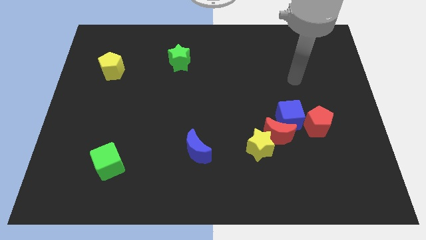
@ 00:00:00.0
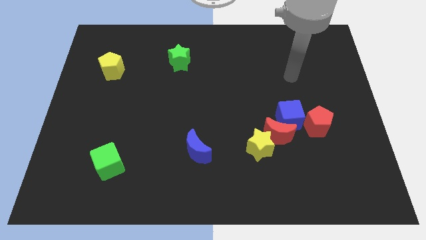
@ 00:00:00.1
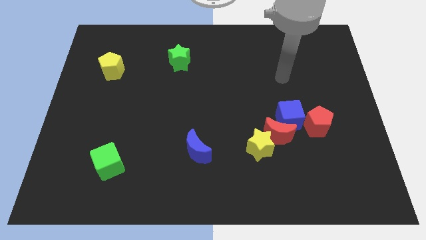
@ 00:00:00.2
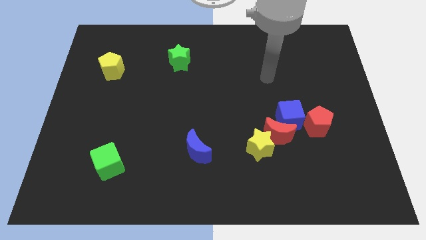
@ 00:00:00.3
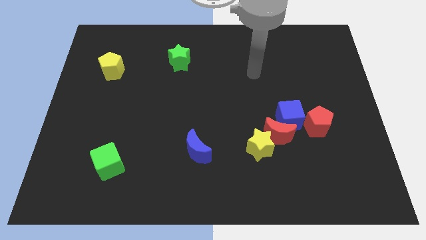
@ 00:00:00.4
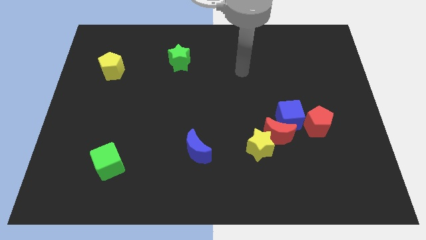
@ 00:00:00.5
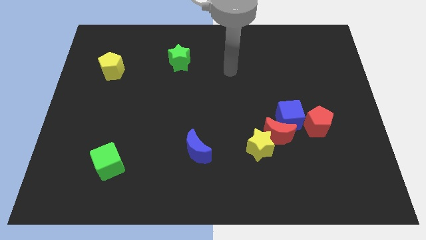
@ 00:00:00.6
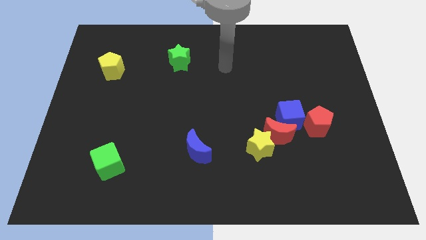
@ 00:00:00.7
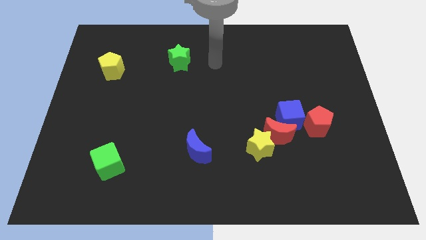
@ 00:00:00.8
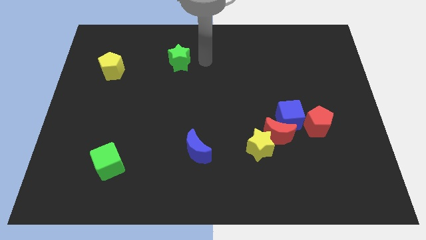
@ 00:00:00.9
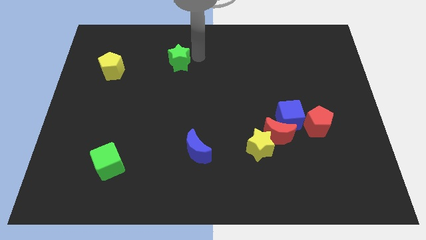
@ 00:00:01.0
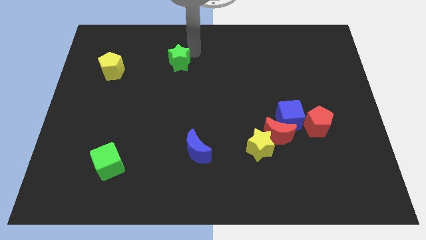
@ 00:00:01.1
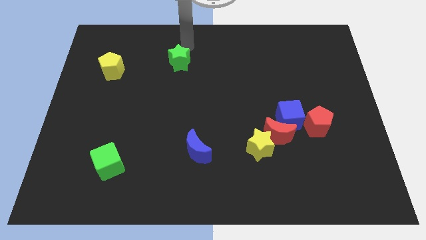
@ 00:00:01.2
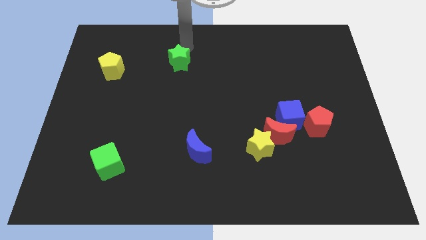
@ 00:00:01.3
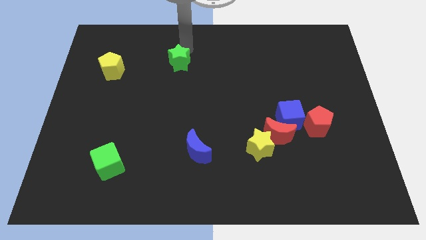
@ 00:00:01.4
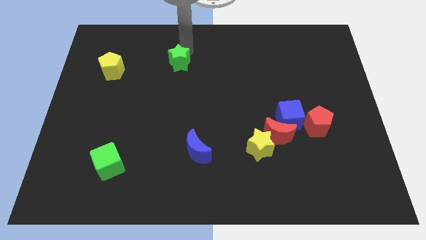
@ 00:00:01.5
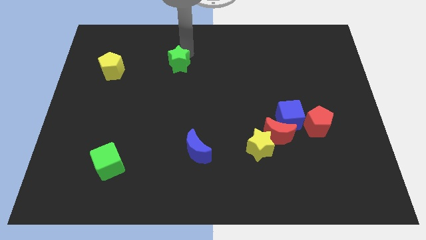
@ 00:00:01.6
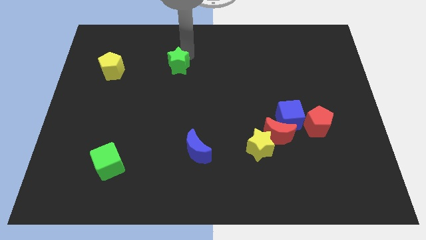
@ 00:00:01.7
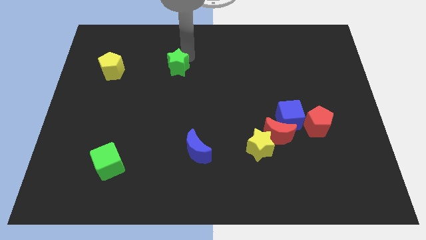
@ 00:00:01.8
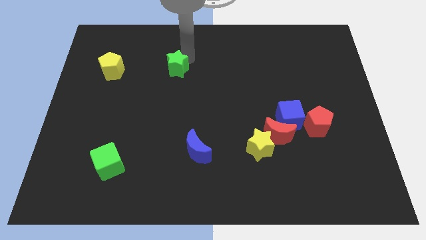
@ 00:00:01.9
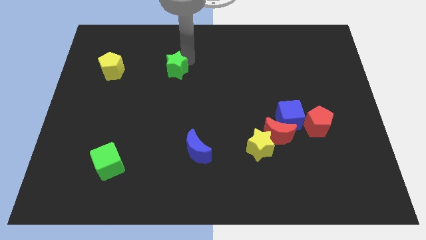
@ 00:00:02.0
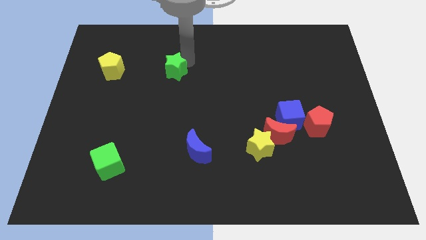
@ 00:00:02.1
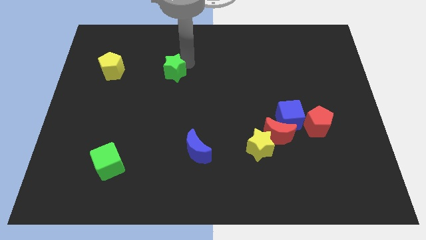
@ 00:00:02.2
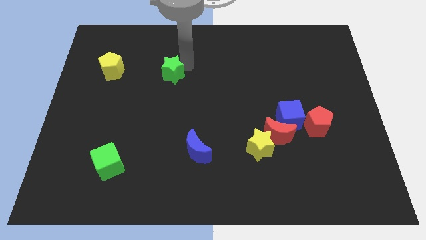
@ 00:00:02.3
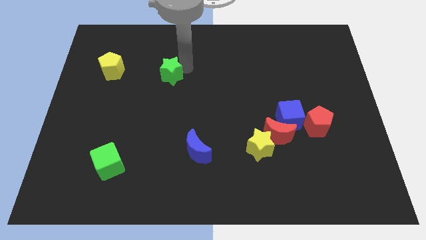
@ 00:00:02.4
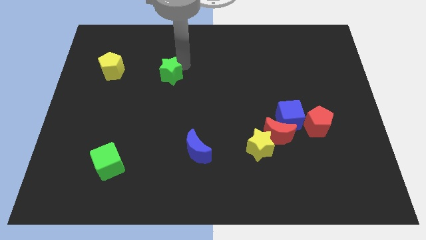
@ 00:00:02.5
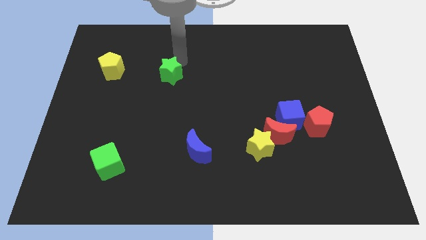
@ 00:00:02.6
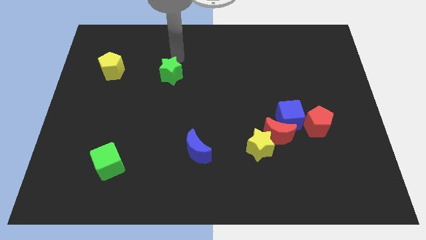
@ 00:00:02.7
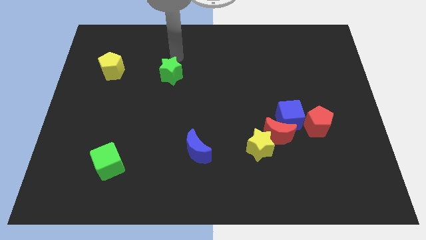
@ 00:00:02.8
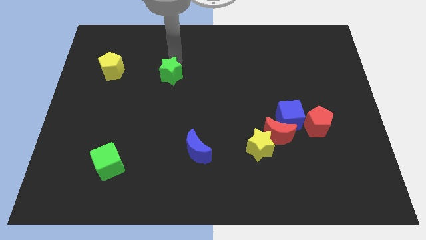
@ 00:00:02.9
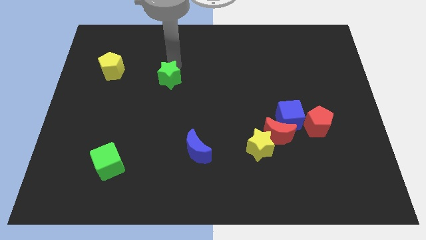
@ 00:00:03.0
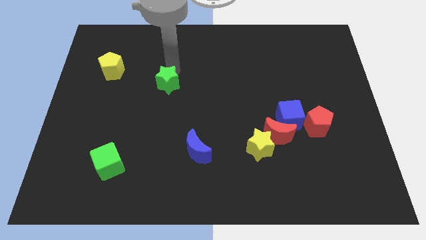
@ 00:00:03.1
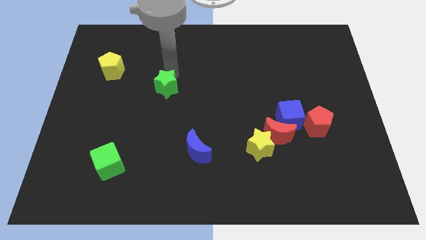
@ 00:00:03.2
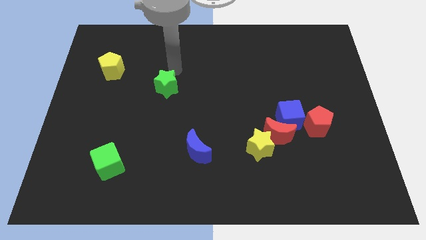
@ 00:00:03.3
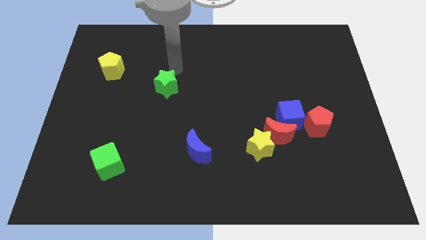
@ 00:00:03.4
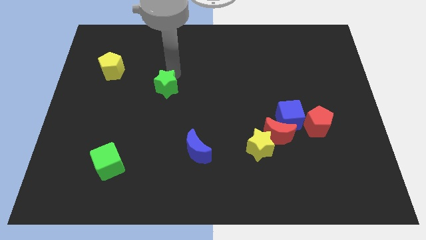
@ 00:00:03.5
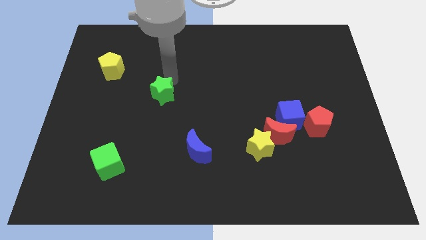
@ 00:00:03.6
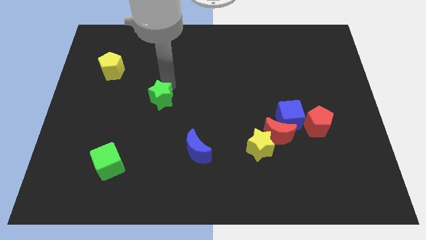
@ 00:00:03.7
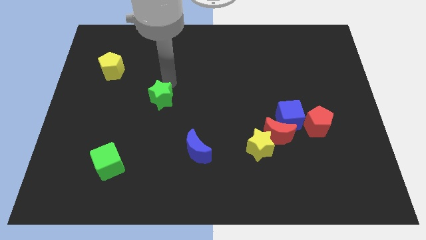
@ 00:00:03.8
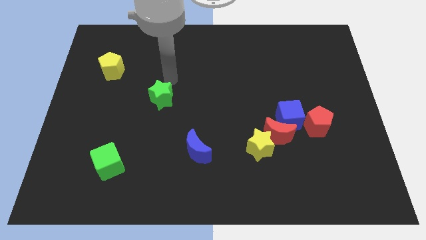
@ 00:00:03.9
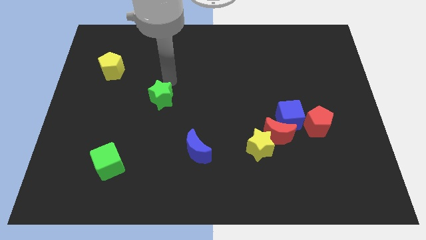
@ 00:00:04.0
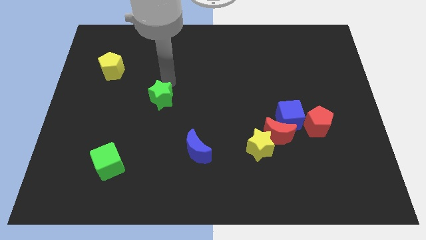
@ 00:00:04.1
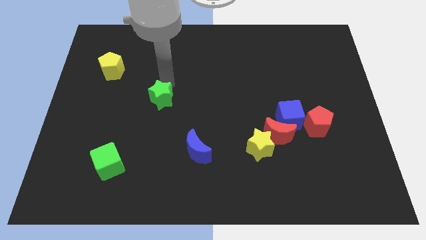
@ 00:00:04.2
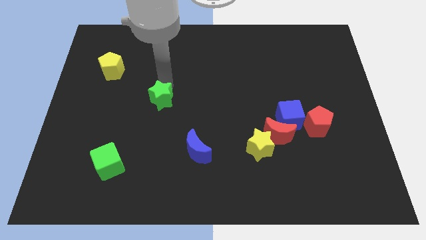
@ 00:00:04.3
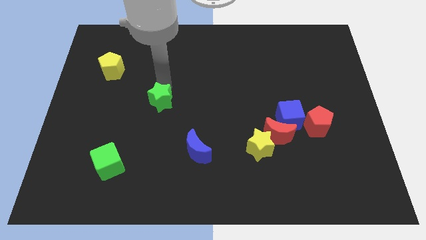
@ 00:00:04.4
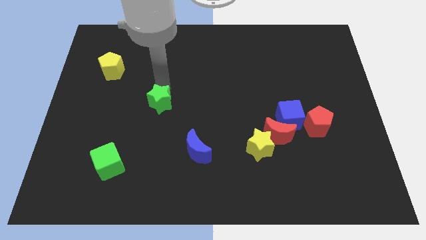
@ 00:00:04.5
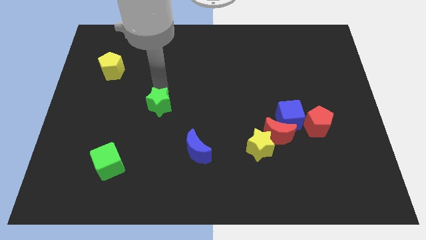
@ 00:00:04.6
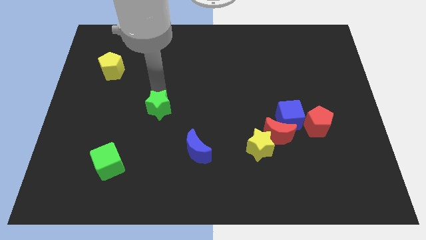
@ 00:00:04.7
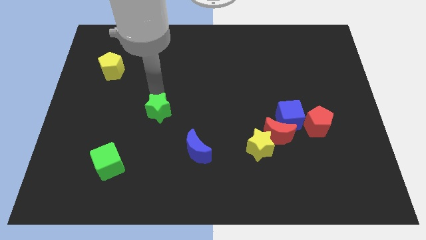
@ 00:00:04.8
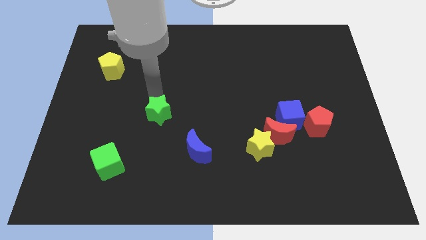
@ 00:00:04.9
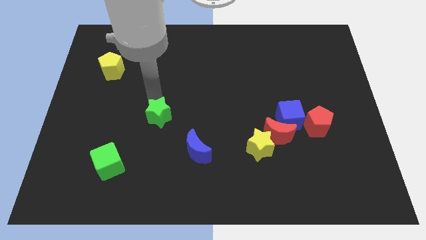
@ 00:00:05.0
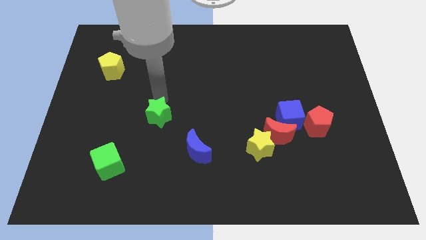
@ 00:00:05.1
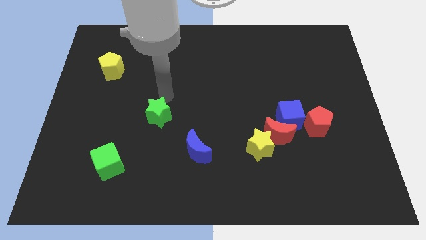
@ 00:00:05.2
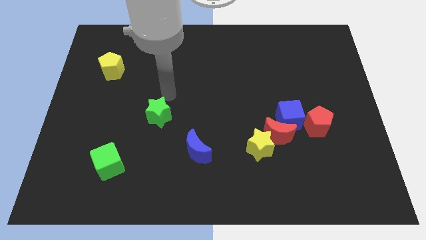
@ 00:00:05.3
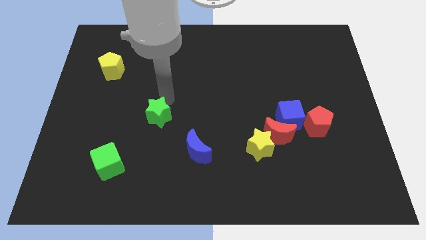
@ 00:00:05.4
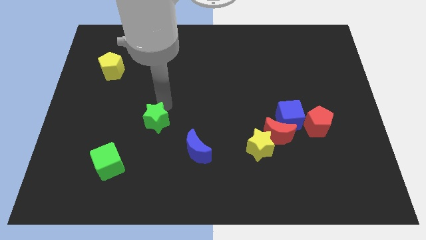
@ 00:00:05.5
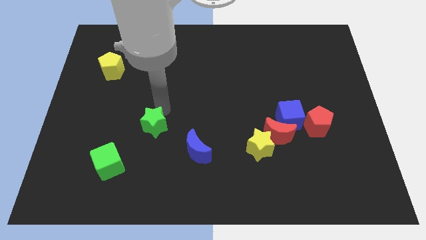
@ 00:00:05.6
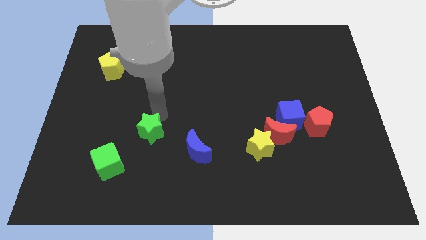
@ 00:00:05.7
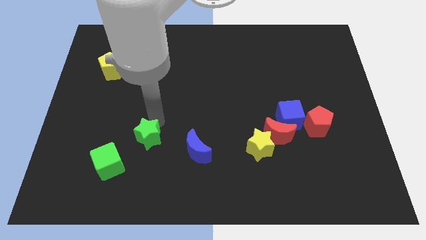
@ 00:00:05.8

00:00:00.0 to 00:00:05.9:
move the green star to the left side of the blue moon
